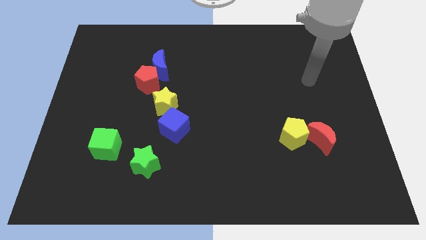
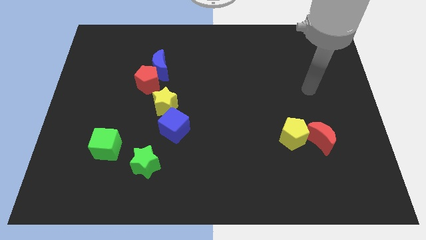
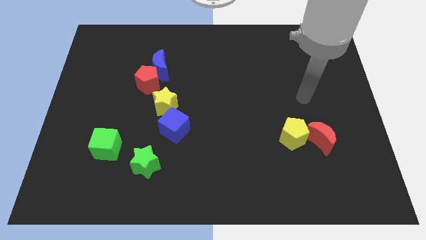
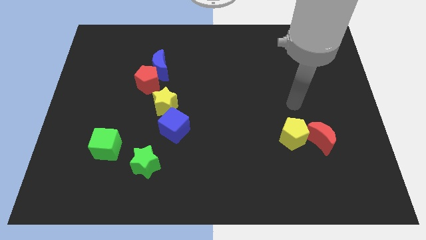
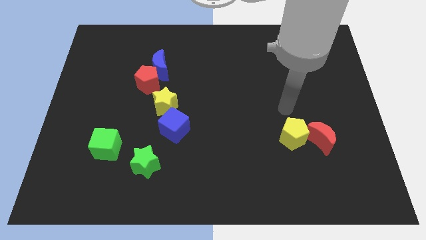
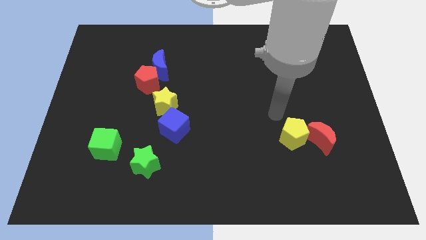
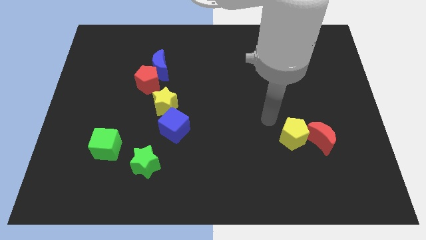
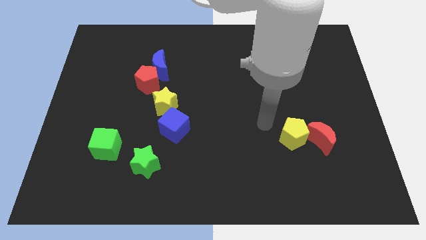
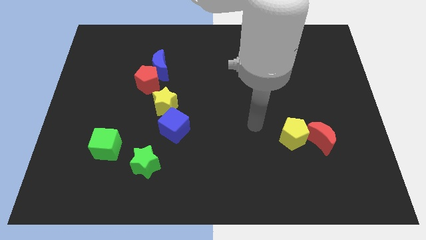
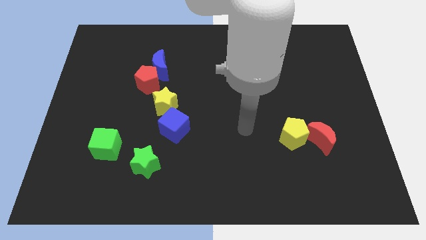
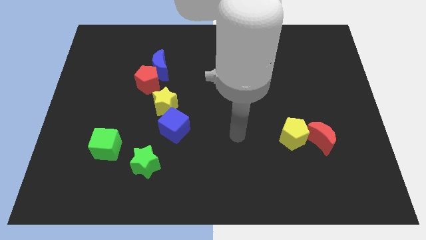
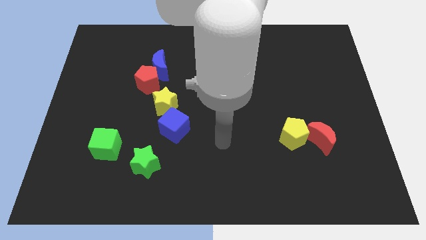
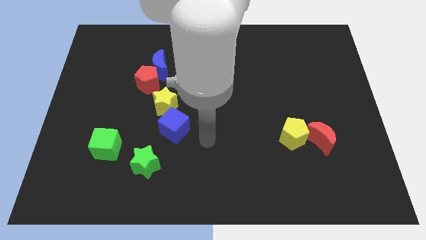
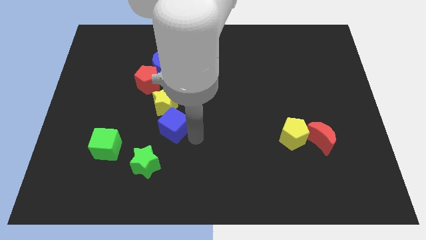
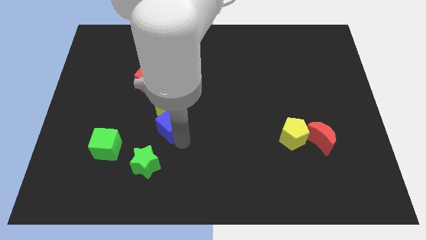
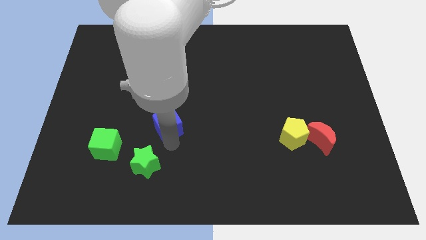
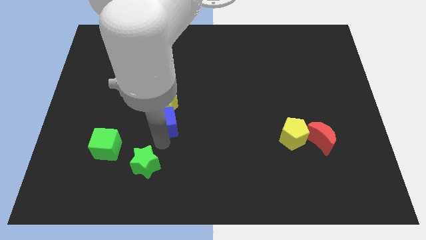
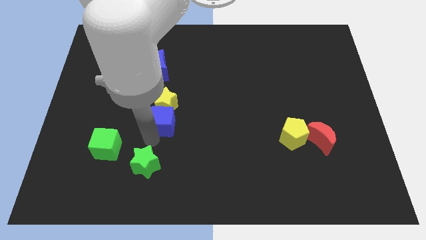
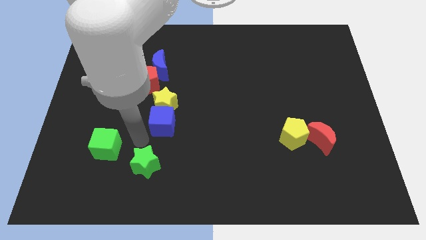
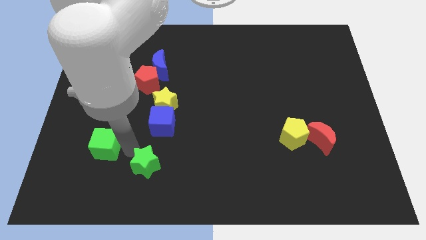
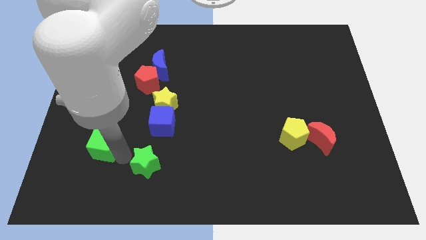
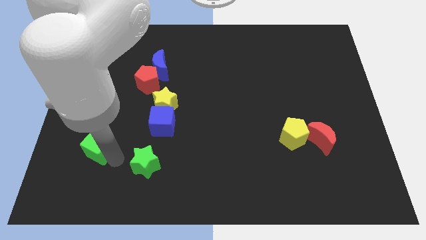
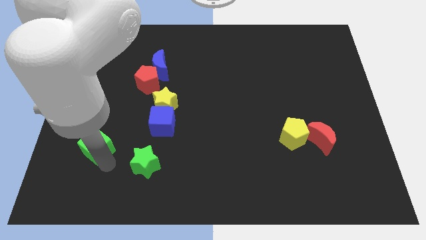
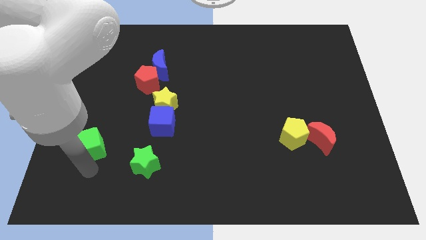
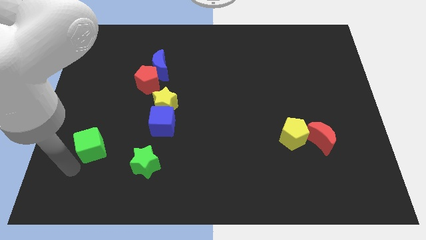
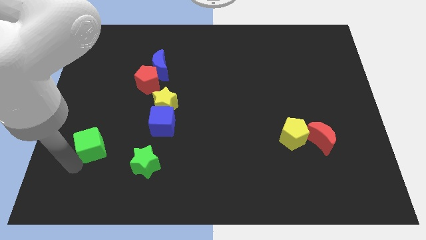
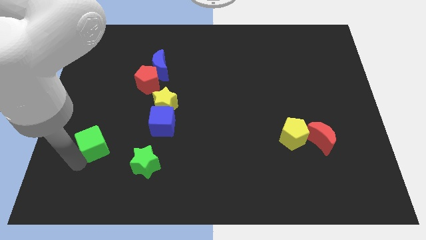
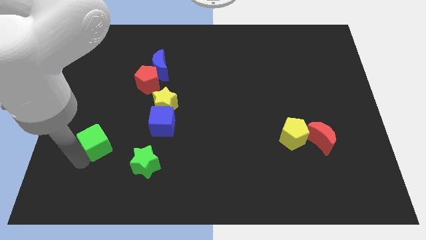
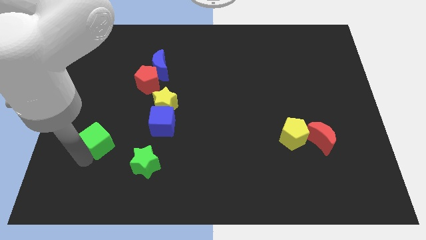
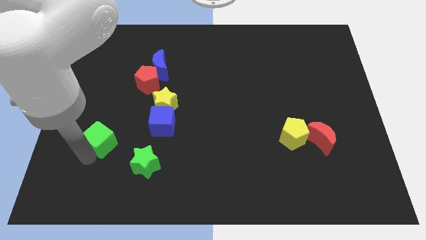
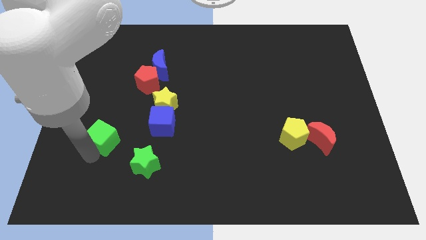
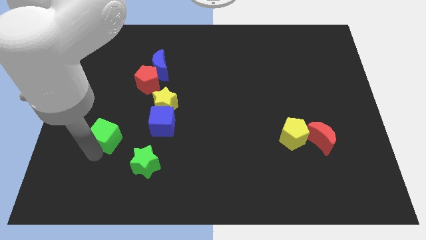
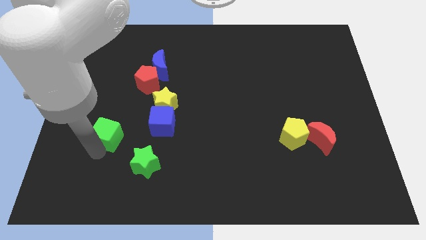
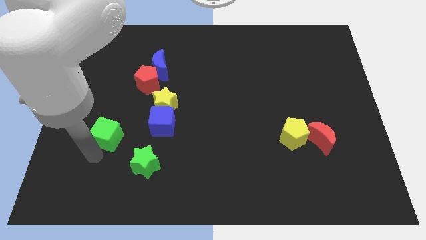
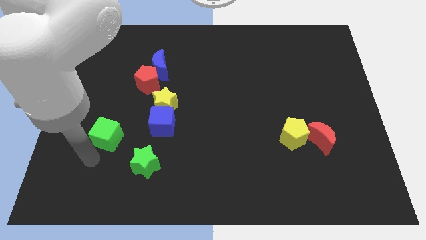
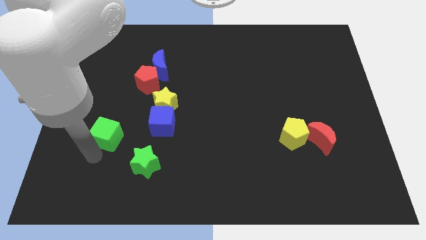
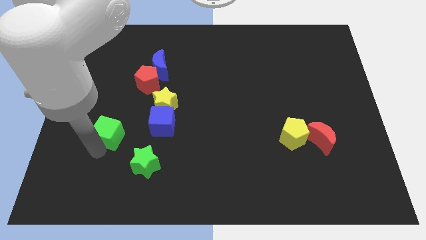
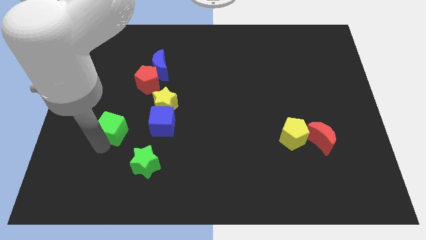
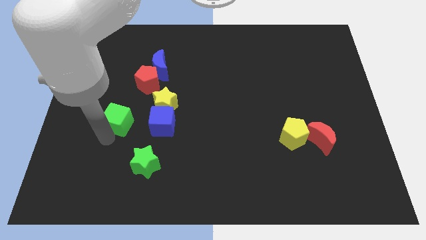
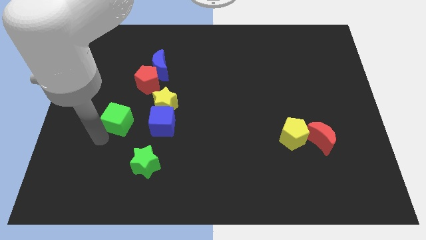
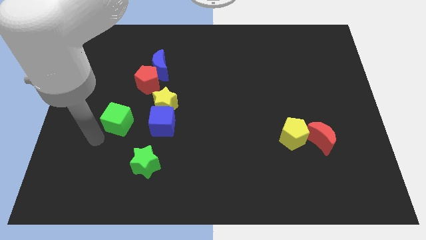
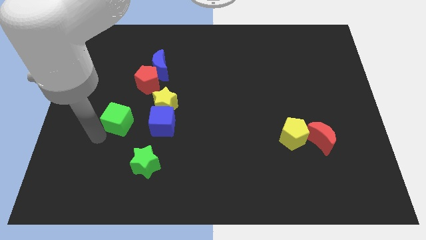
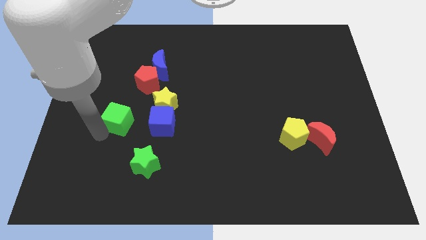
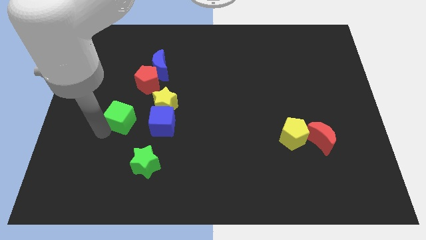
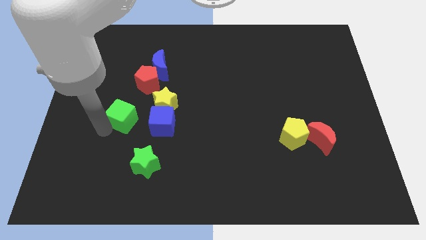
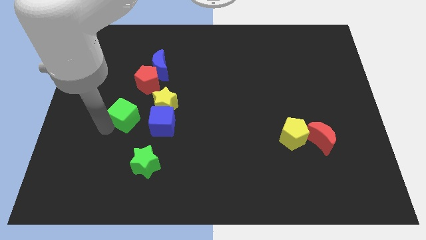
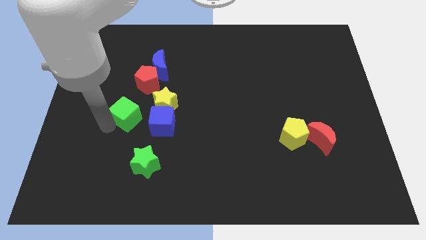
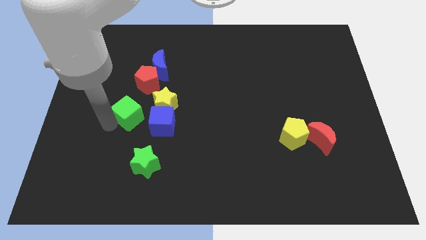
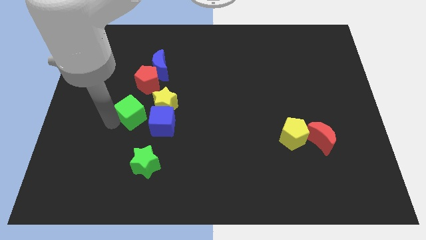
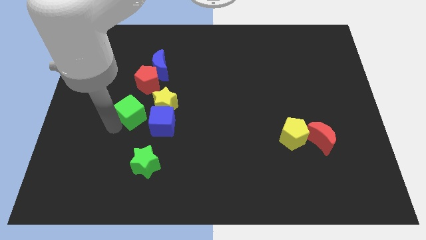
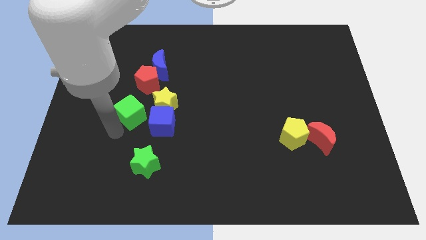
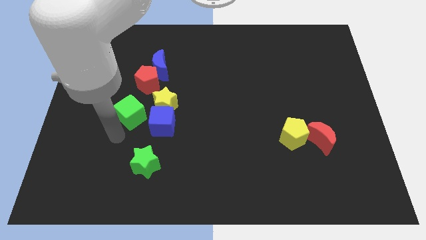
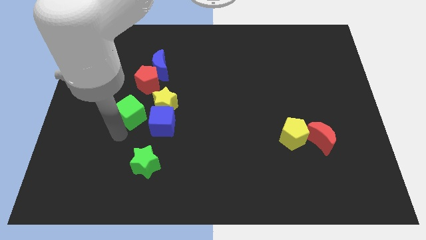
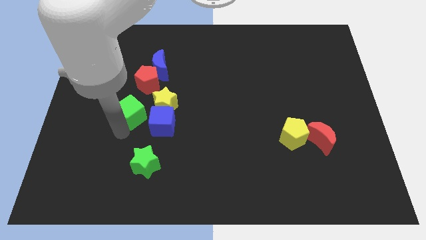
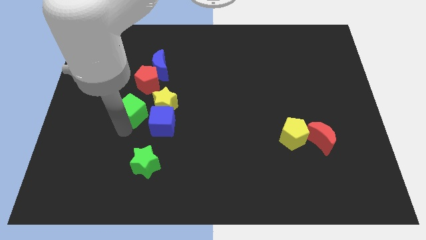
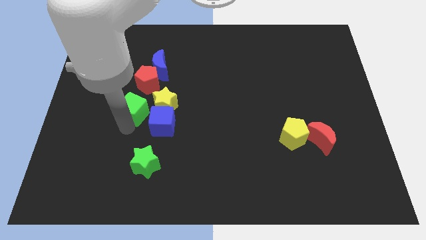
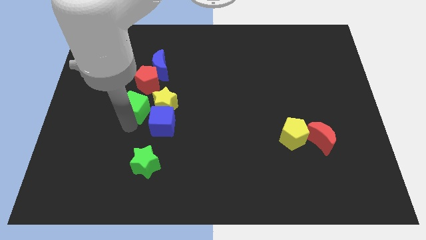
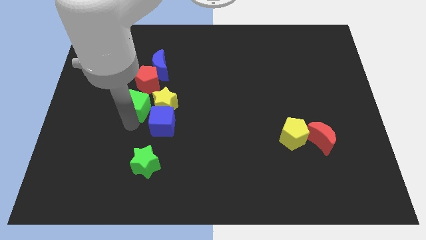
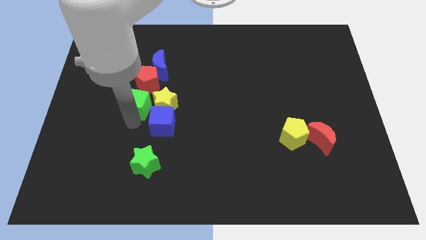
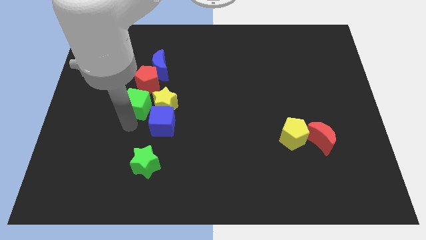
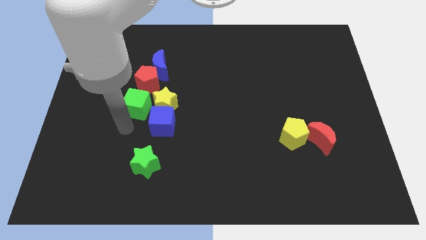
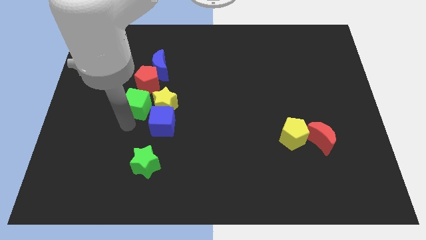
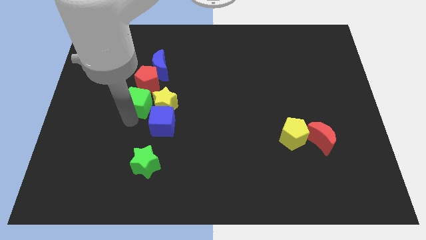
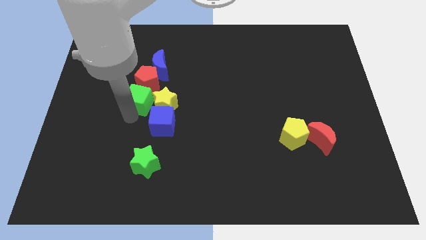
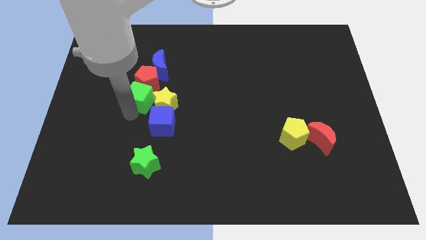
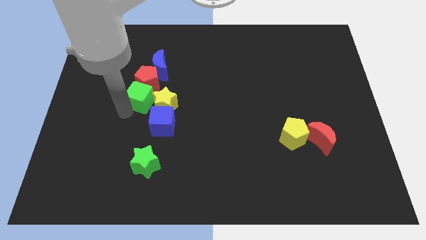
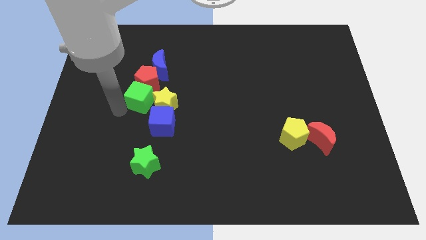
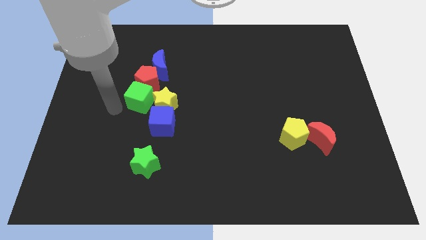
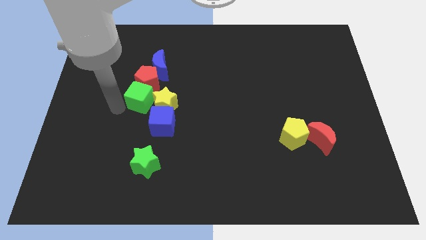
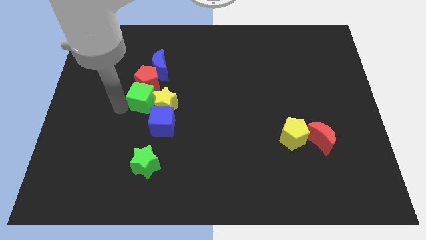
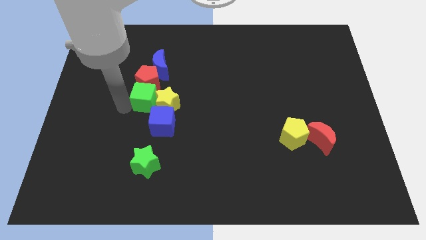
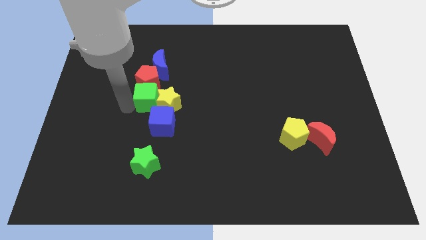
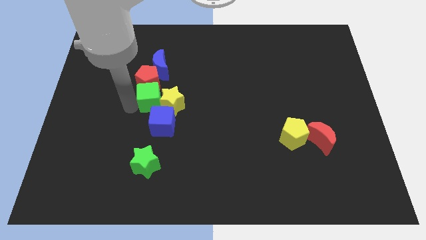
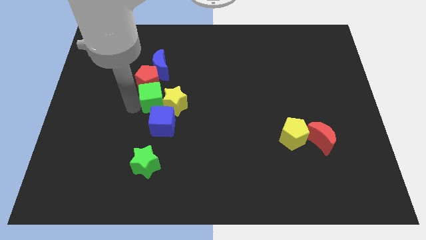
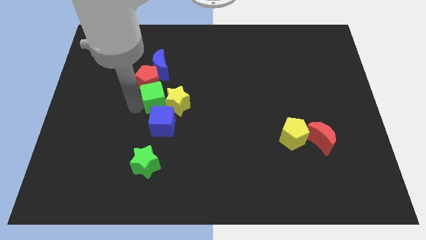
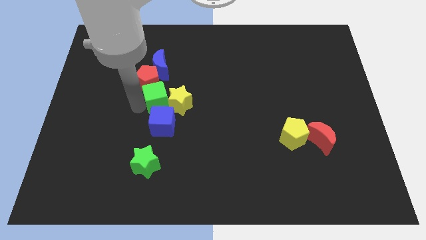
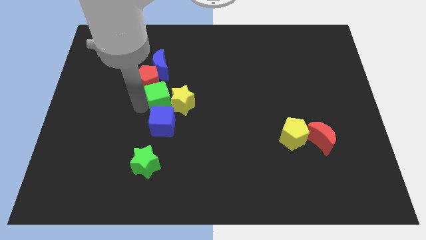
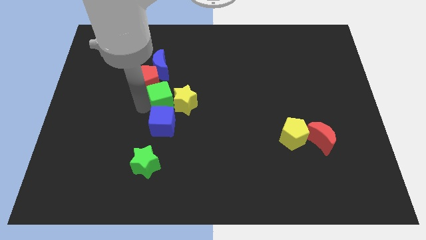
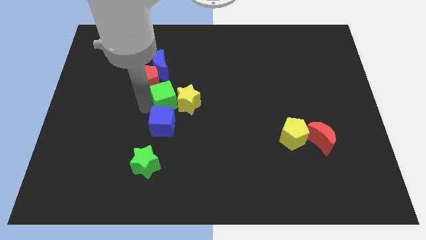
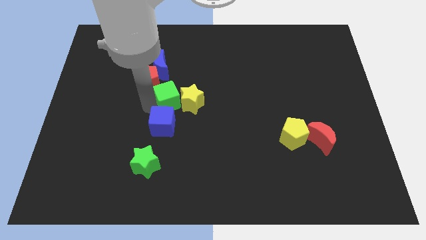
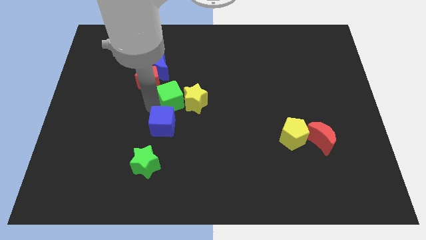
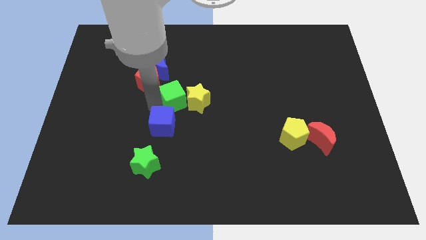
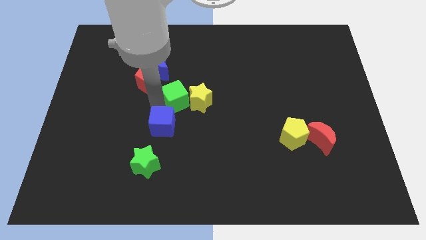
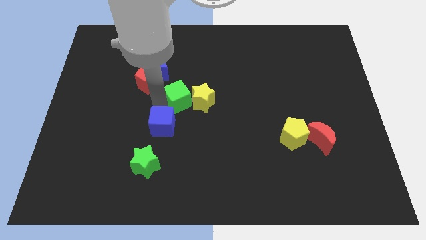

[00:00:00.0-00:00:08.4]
move the green cube up and right diagonally
